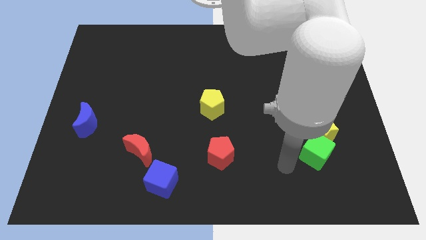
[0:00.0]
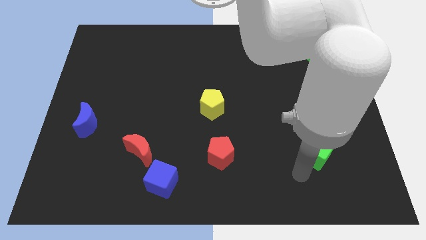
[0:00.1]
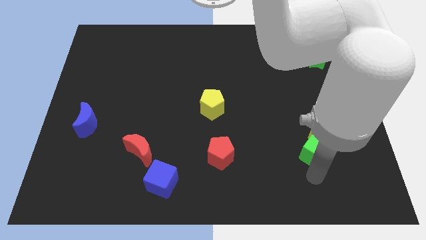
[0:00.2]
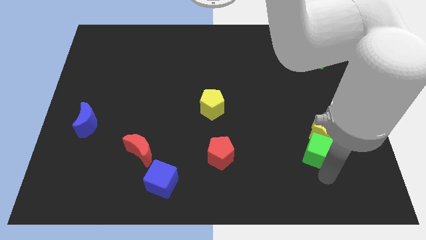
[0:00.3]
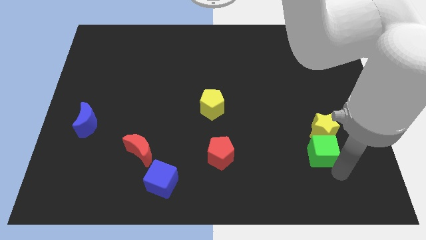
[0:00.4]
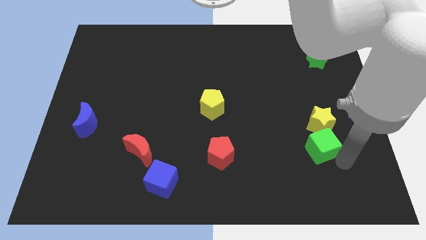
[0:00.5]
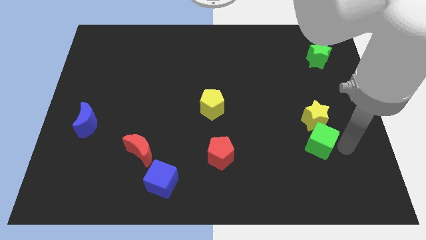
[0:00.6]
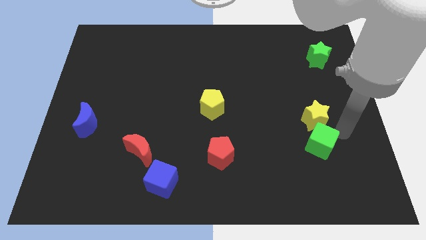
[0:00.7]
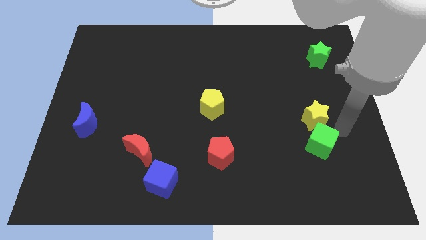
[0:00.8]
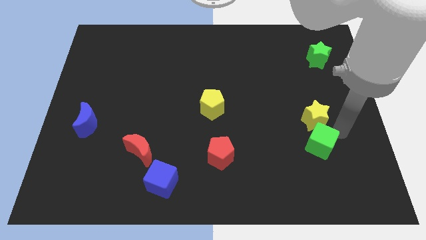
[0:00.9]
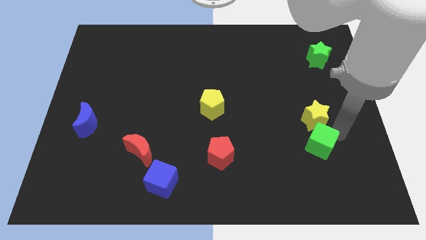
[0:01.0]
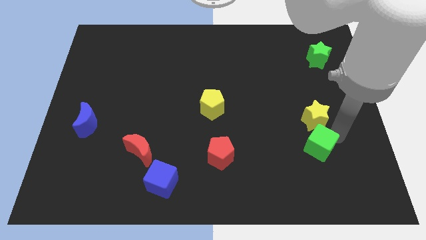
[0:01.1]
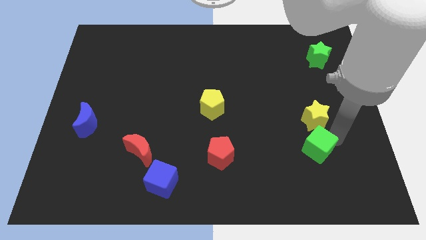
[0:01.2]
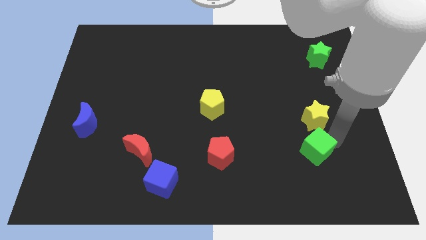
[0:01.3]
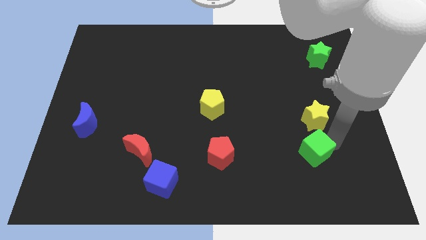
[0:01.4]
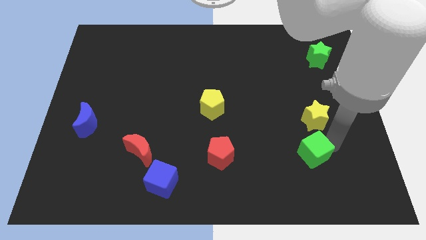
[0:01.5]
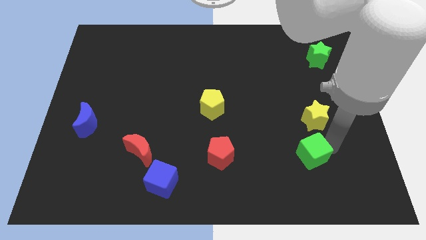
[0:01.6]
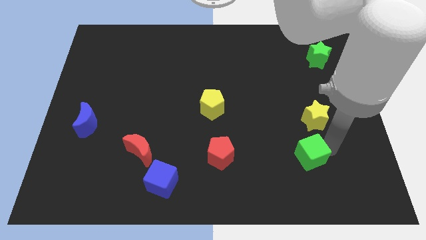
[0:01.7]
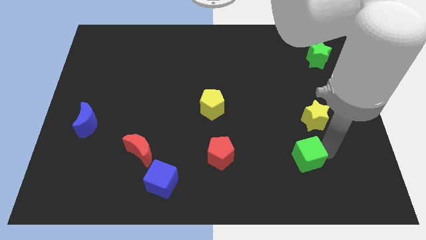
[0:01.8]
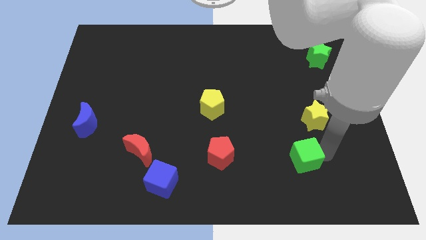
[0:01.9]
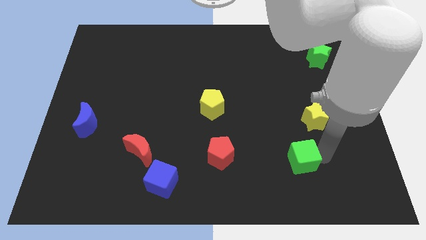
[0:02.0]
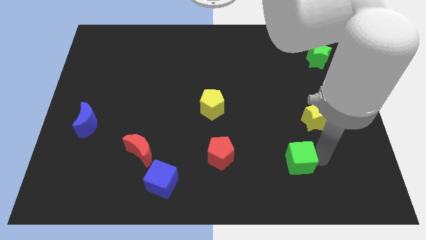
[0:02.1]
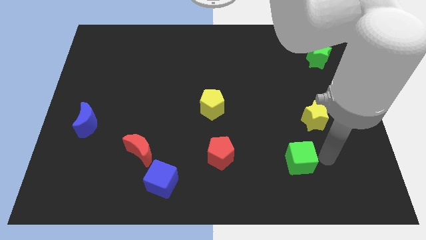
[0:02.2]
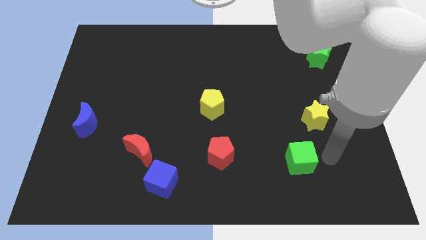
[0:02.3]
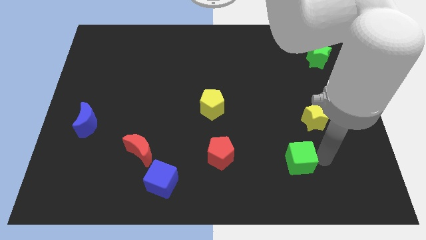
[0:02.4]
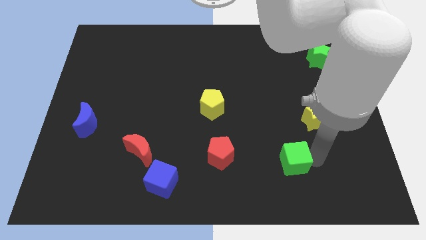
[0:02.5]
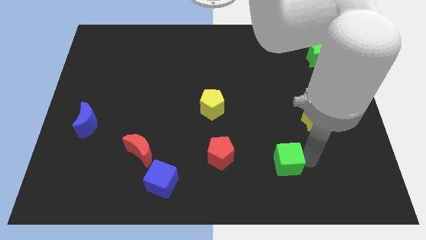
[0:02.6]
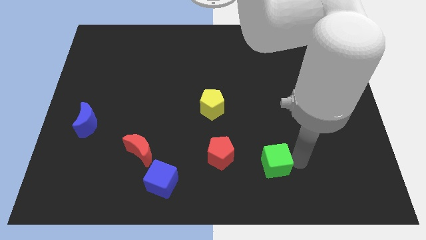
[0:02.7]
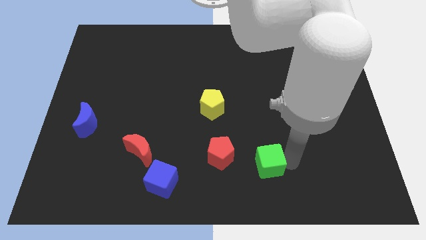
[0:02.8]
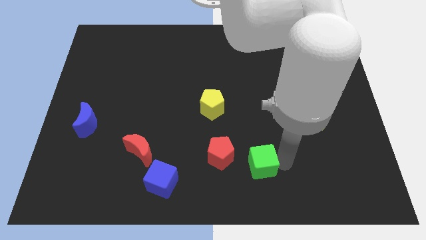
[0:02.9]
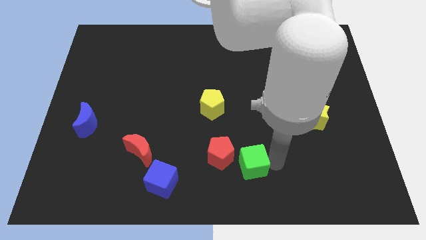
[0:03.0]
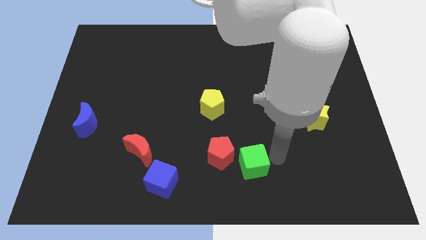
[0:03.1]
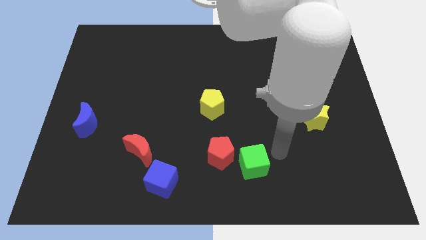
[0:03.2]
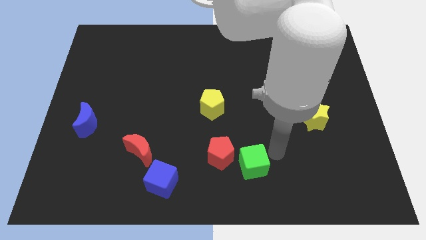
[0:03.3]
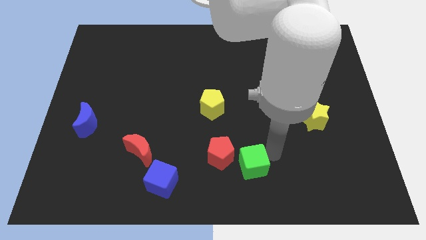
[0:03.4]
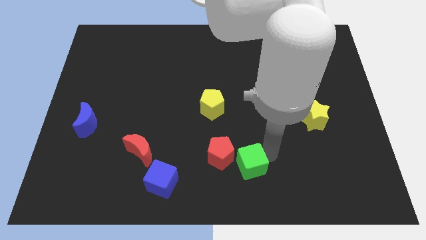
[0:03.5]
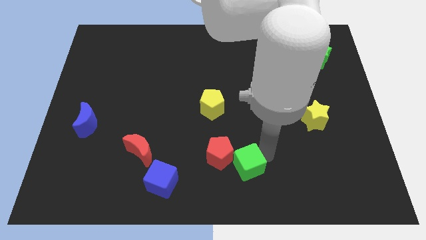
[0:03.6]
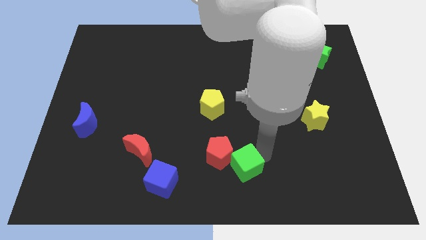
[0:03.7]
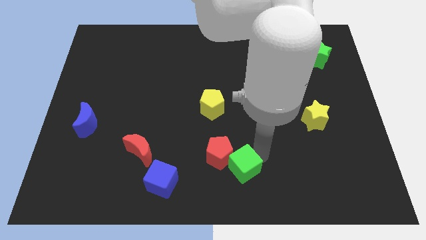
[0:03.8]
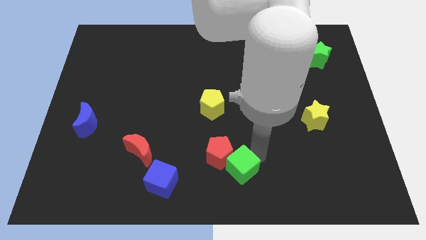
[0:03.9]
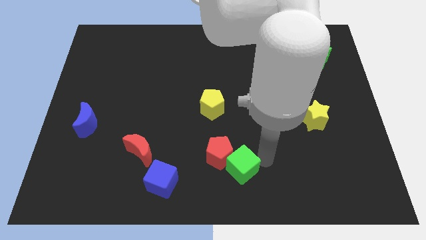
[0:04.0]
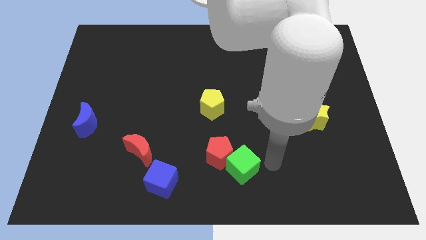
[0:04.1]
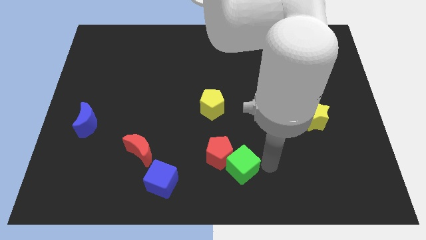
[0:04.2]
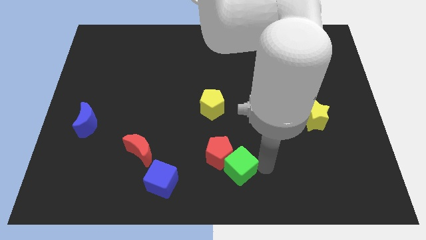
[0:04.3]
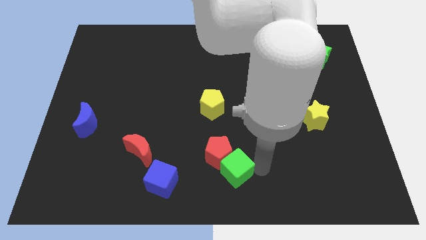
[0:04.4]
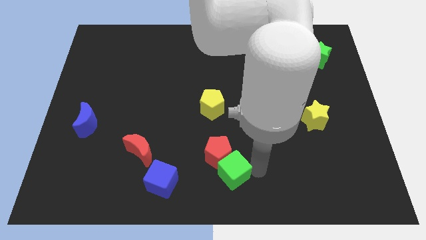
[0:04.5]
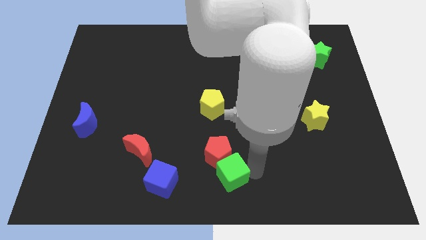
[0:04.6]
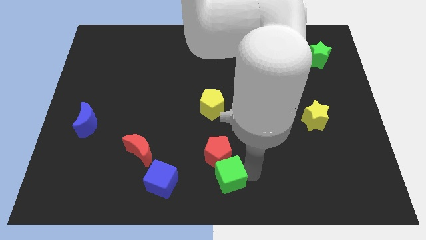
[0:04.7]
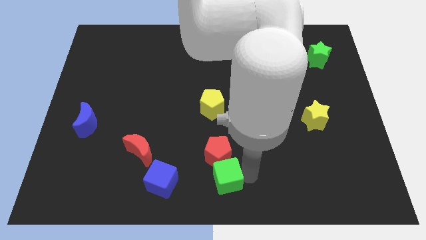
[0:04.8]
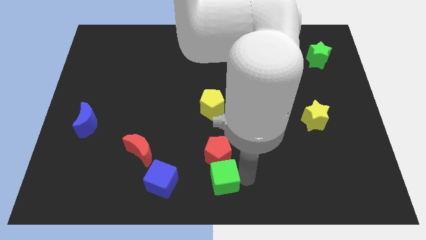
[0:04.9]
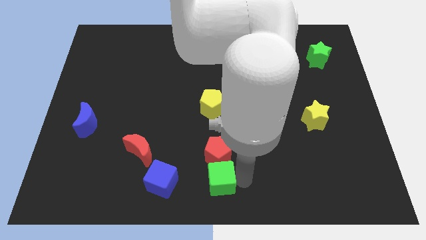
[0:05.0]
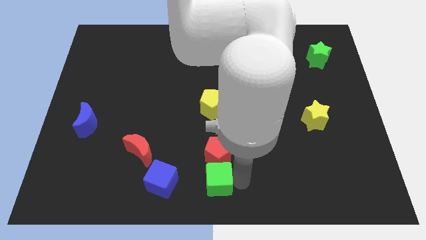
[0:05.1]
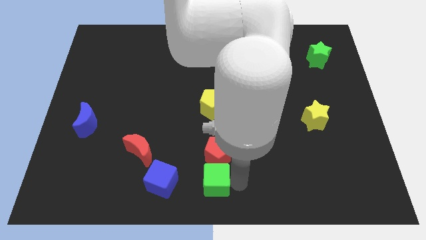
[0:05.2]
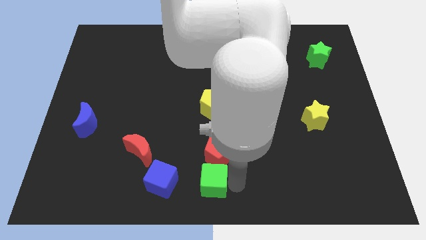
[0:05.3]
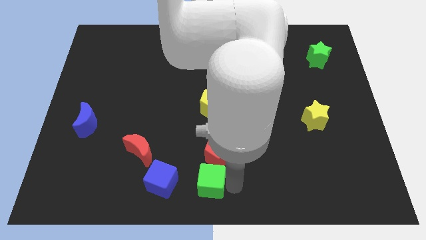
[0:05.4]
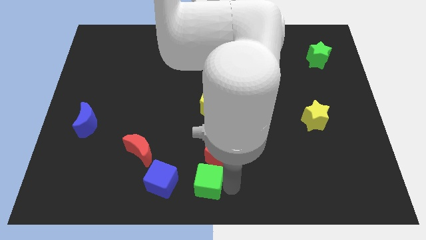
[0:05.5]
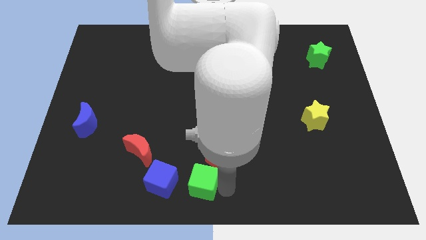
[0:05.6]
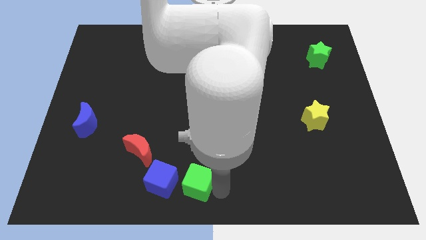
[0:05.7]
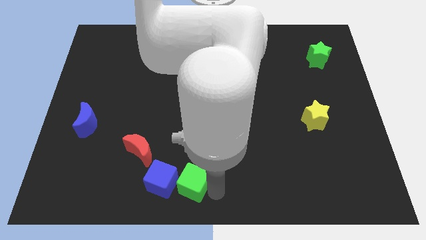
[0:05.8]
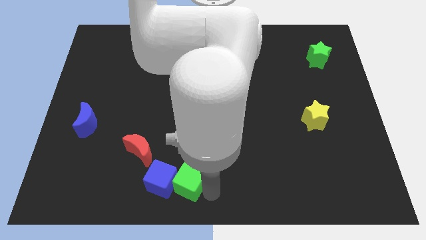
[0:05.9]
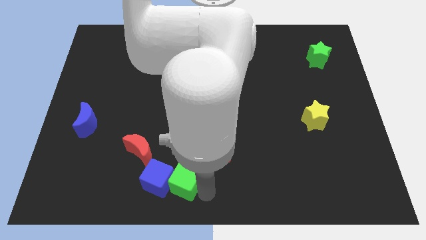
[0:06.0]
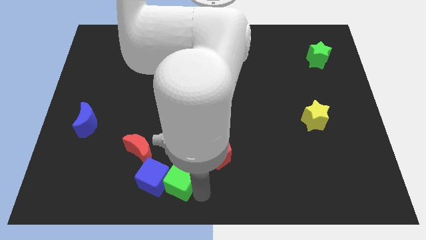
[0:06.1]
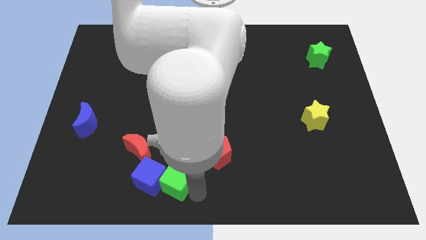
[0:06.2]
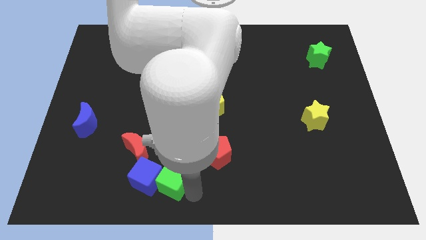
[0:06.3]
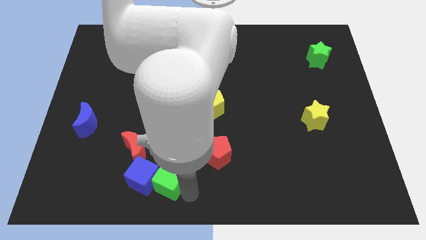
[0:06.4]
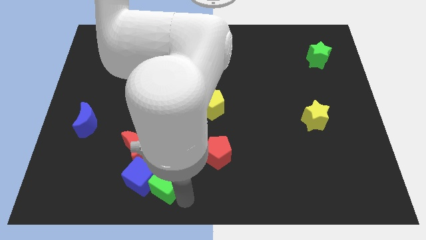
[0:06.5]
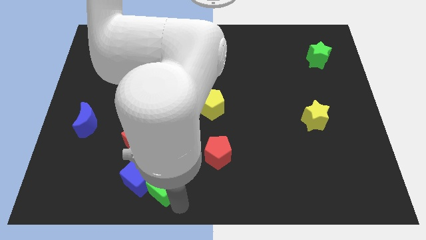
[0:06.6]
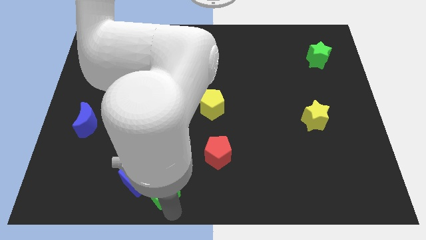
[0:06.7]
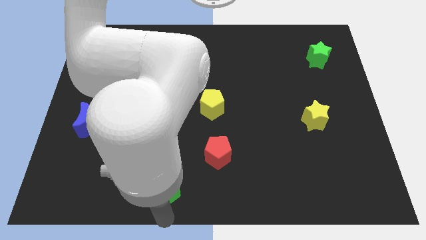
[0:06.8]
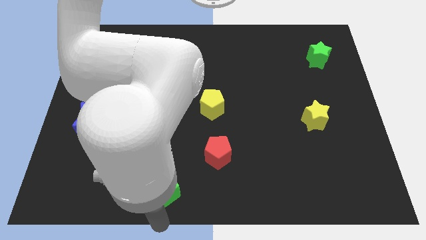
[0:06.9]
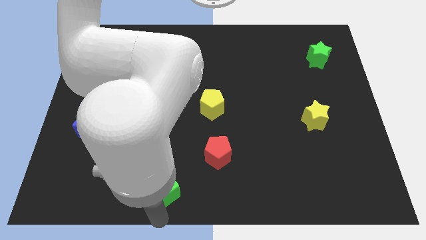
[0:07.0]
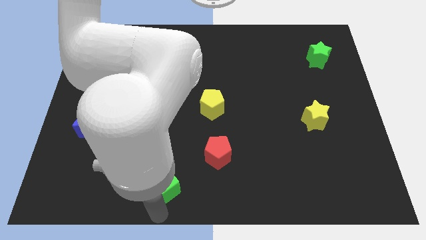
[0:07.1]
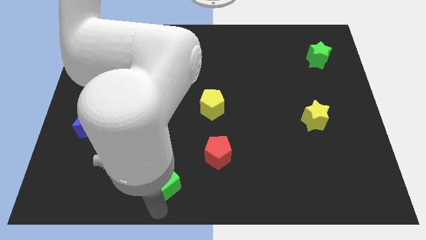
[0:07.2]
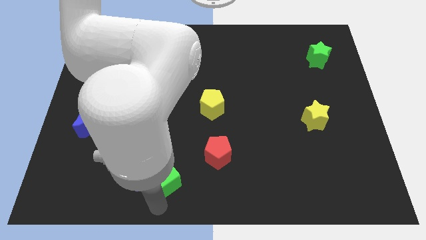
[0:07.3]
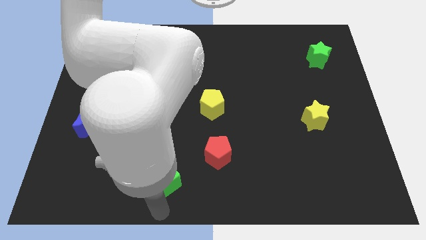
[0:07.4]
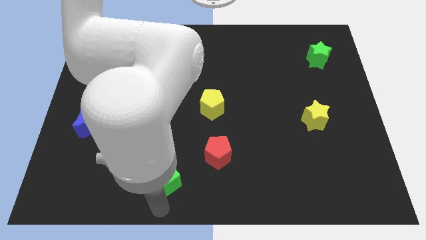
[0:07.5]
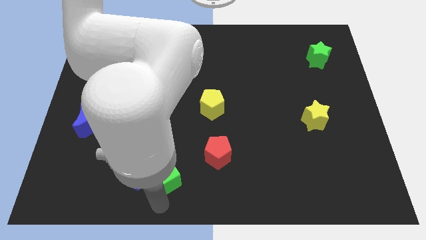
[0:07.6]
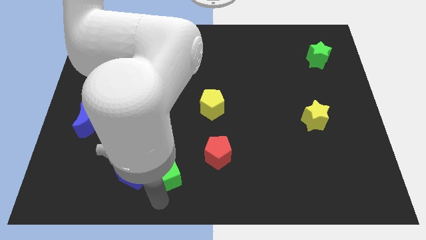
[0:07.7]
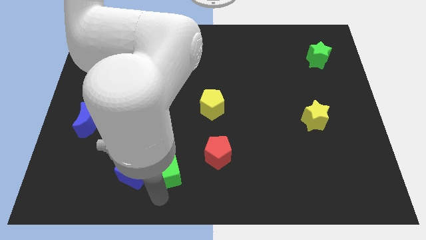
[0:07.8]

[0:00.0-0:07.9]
slide the green cube to the left of the red pentagon
